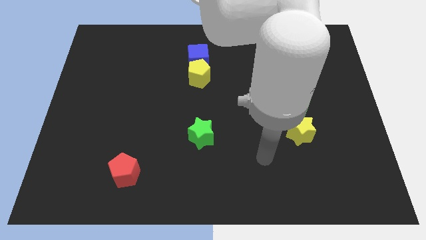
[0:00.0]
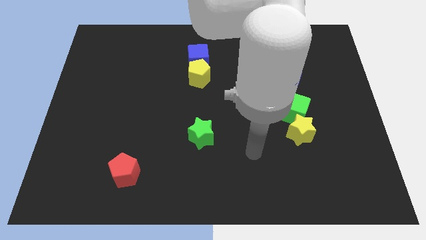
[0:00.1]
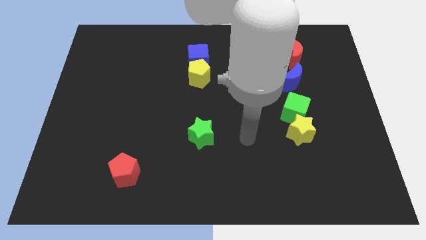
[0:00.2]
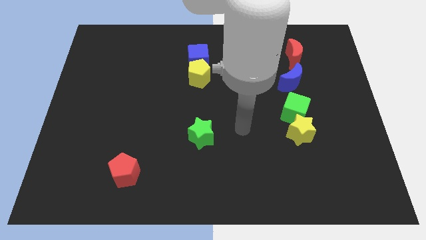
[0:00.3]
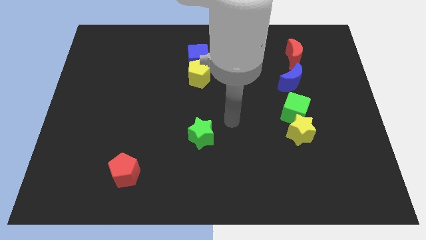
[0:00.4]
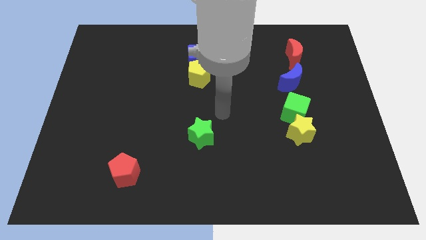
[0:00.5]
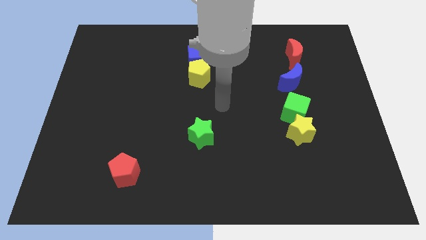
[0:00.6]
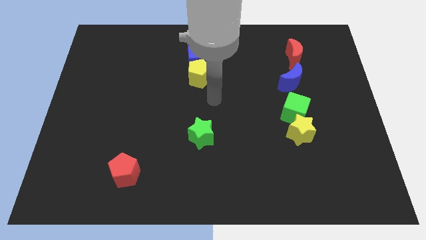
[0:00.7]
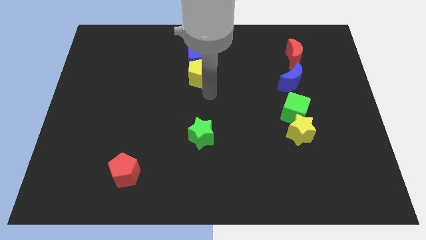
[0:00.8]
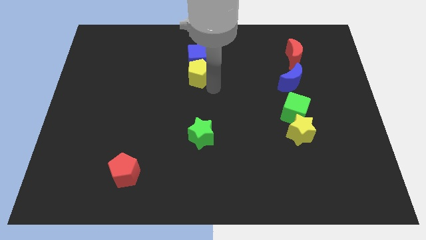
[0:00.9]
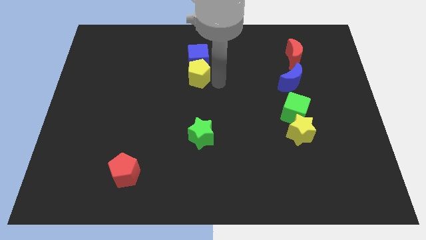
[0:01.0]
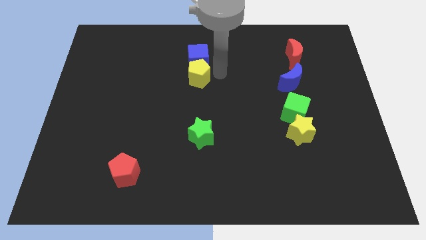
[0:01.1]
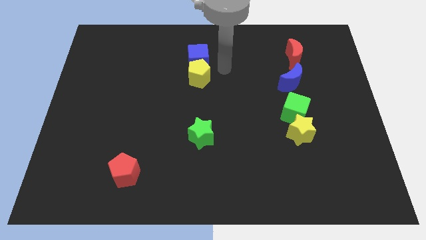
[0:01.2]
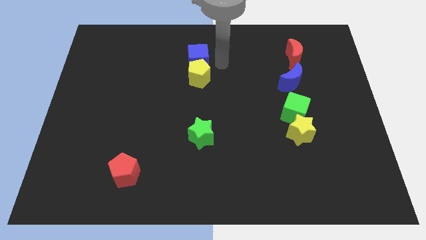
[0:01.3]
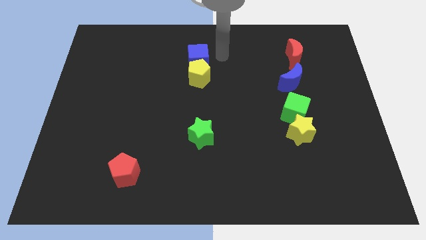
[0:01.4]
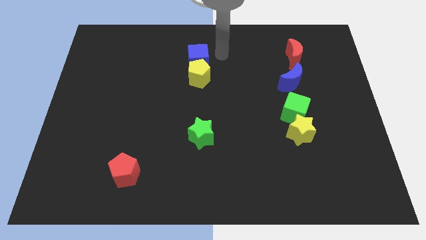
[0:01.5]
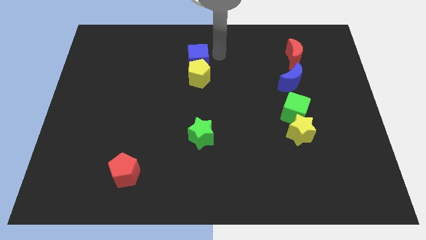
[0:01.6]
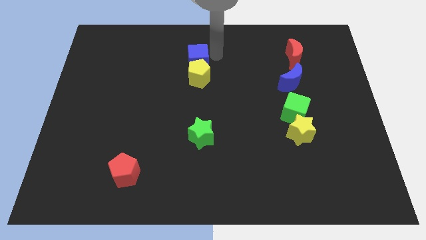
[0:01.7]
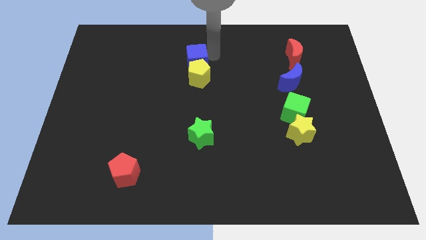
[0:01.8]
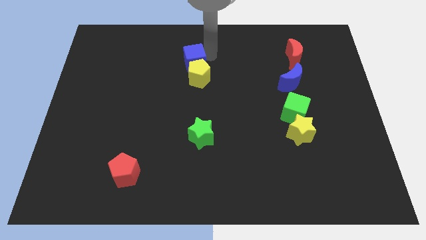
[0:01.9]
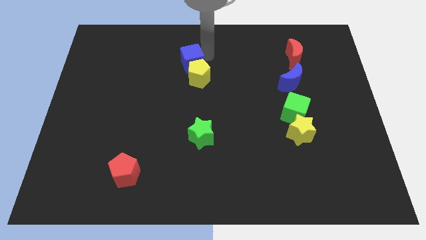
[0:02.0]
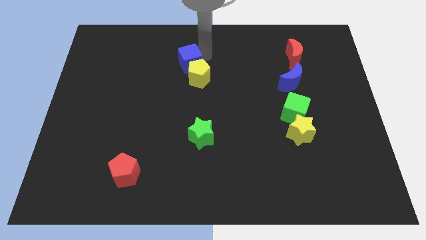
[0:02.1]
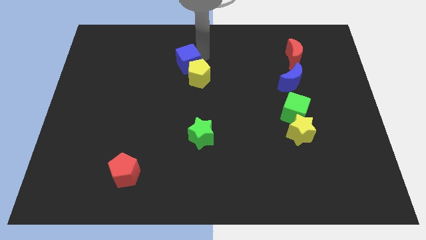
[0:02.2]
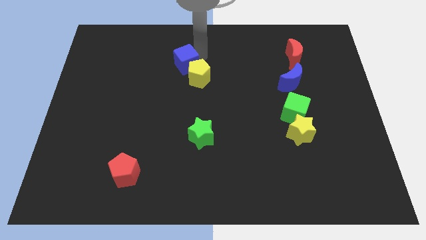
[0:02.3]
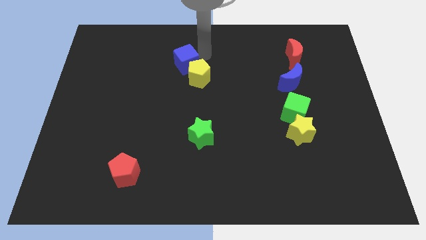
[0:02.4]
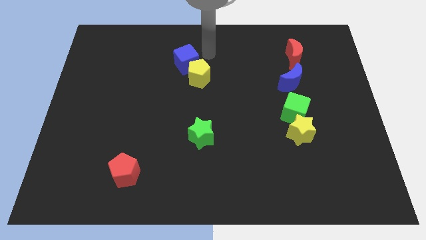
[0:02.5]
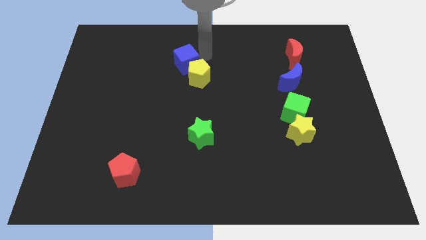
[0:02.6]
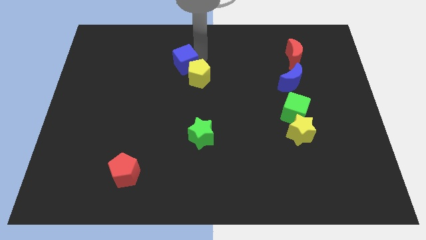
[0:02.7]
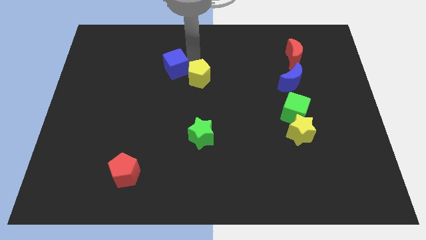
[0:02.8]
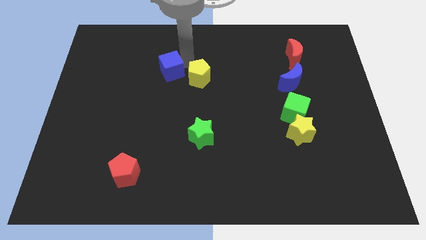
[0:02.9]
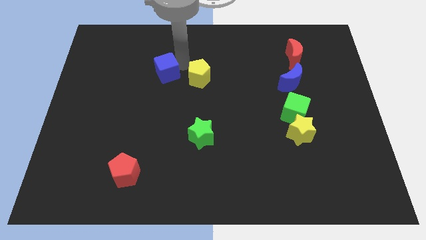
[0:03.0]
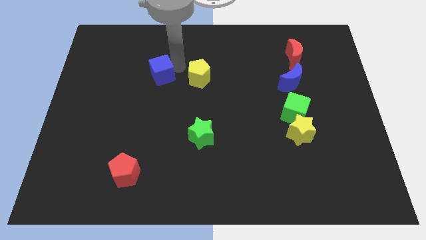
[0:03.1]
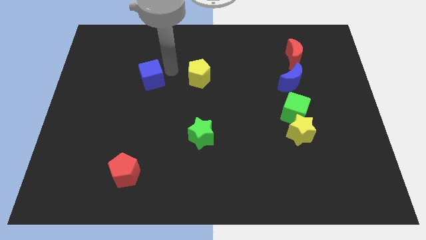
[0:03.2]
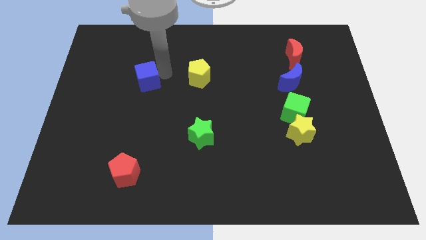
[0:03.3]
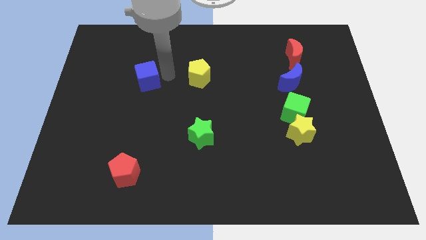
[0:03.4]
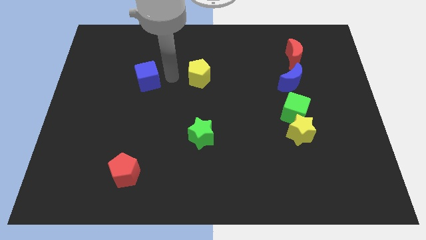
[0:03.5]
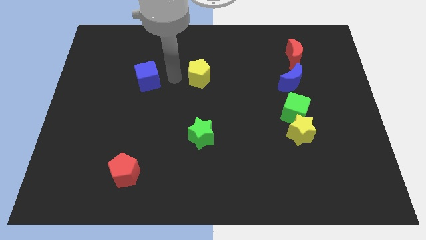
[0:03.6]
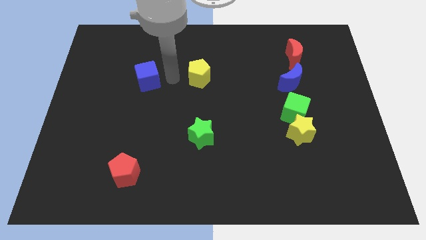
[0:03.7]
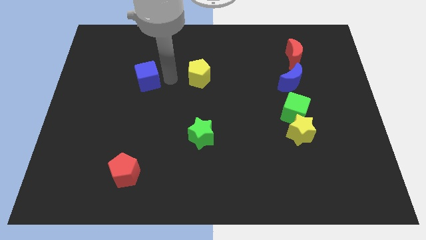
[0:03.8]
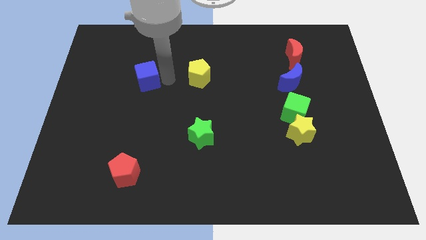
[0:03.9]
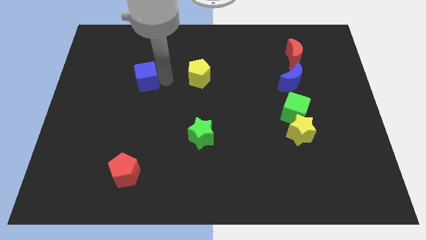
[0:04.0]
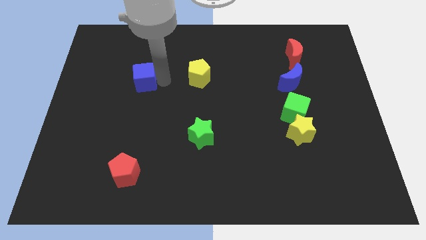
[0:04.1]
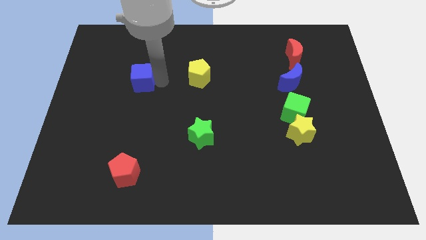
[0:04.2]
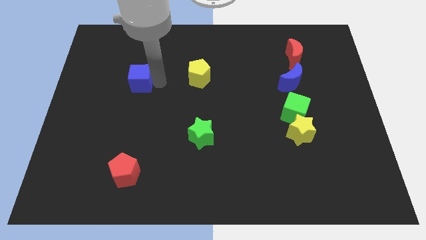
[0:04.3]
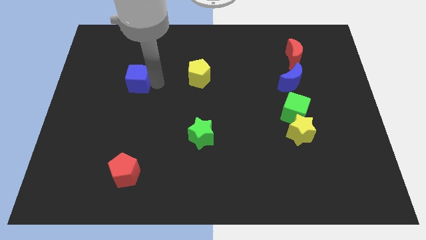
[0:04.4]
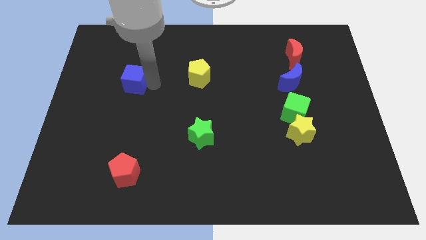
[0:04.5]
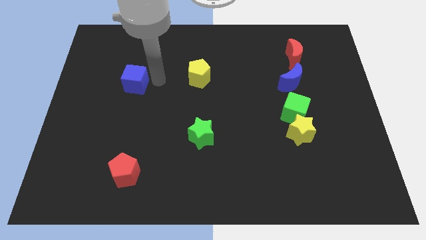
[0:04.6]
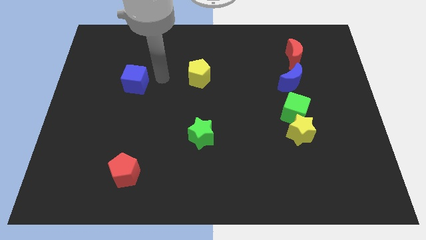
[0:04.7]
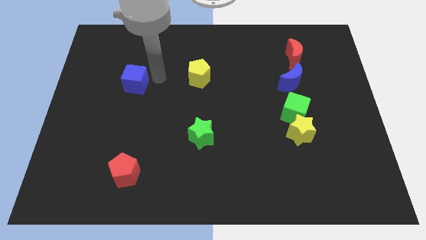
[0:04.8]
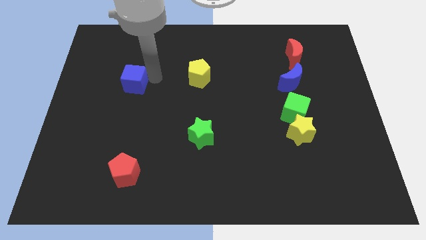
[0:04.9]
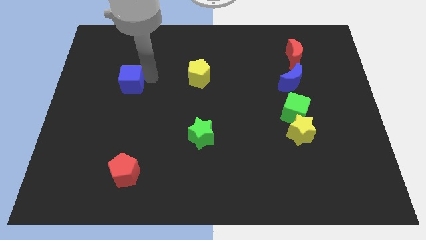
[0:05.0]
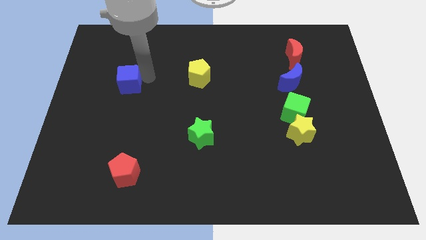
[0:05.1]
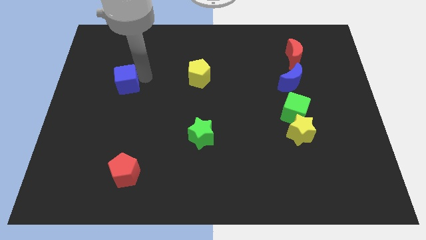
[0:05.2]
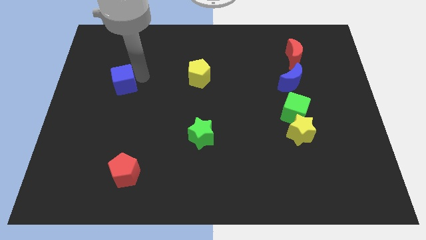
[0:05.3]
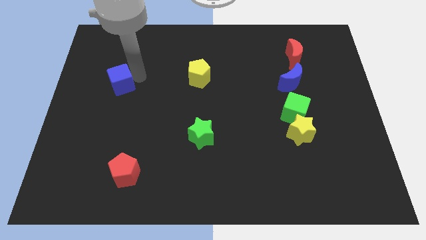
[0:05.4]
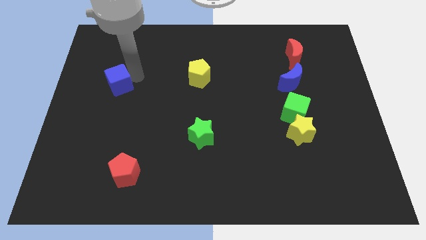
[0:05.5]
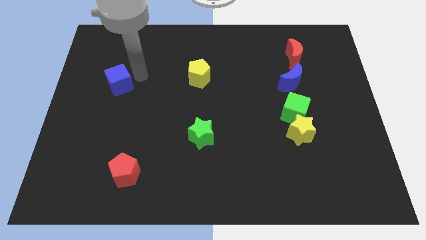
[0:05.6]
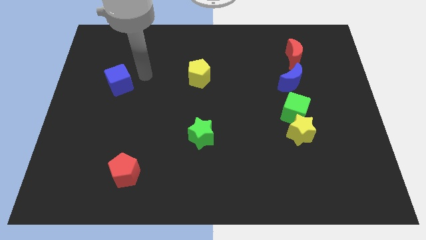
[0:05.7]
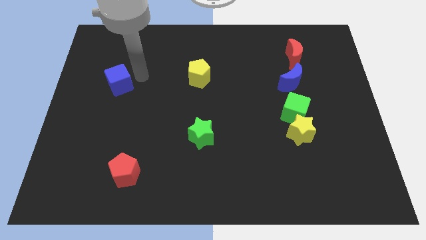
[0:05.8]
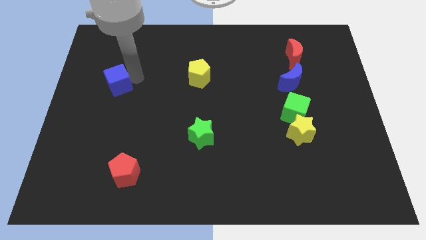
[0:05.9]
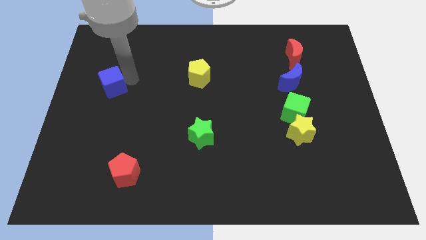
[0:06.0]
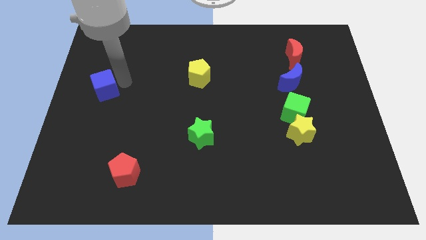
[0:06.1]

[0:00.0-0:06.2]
move the blue cube to the center left

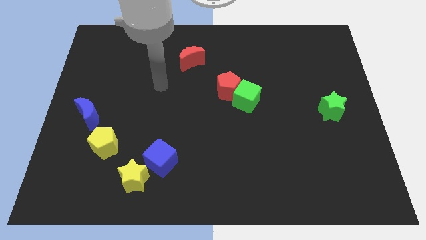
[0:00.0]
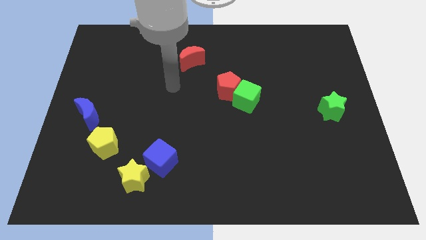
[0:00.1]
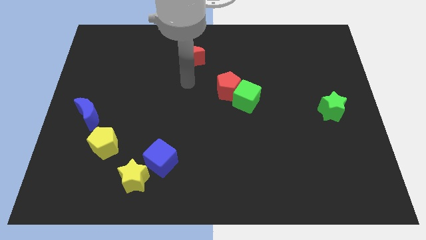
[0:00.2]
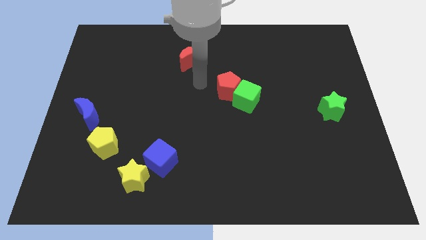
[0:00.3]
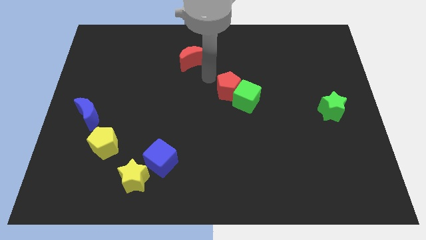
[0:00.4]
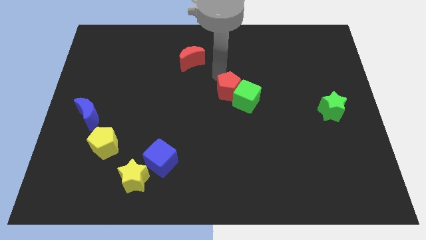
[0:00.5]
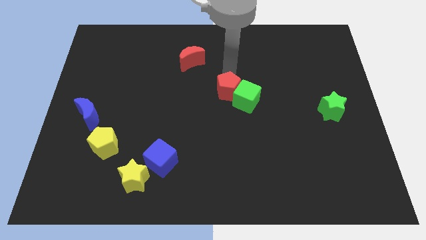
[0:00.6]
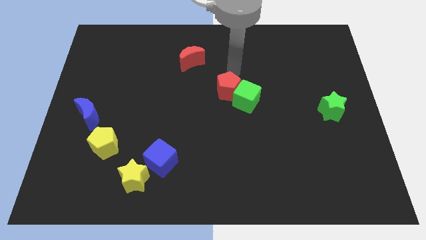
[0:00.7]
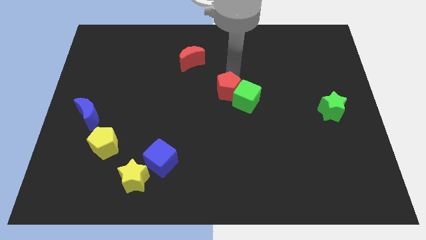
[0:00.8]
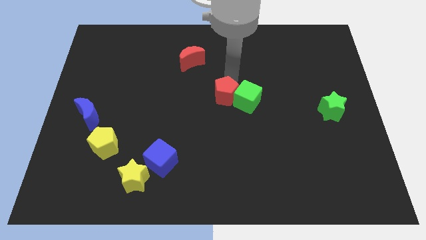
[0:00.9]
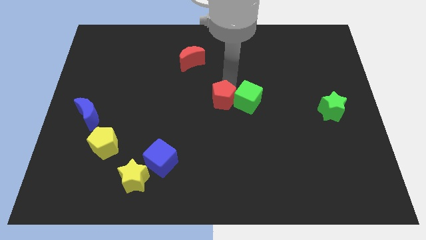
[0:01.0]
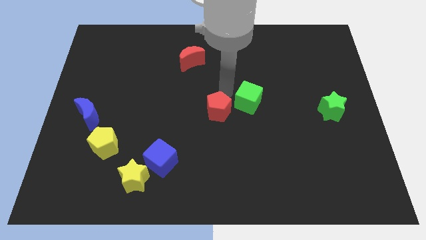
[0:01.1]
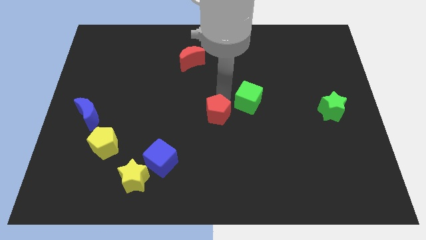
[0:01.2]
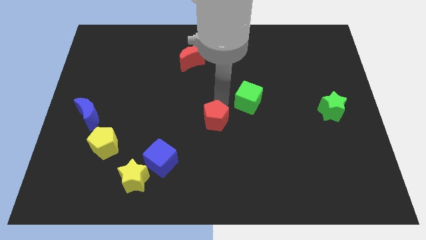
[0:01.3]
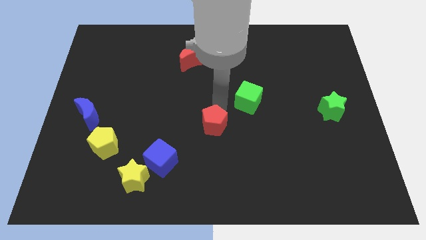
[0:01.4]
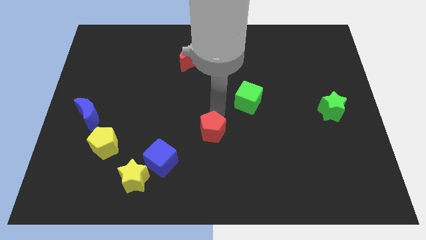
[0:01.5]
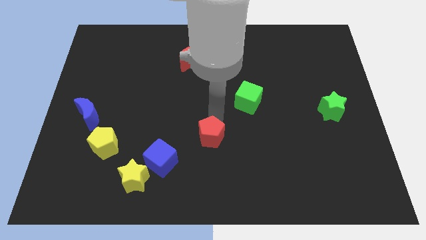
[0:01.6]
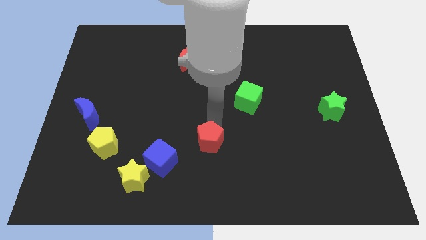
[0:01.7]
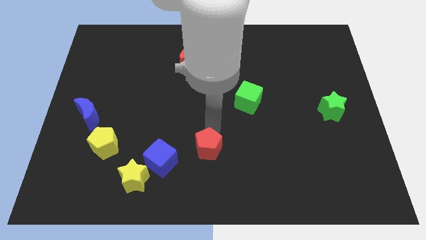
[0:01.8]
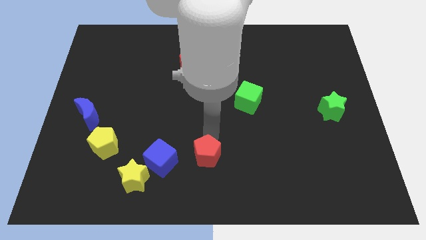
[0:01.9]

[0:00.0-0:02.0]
put the red pentagon to the bottom
